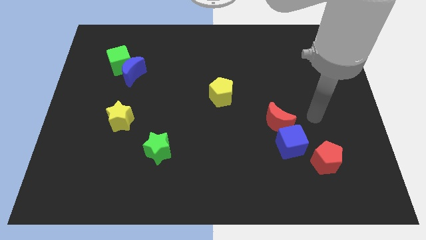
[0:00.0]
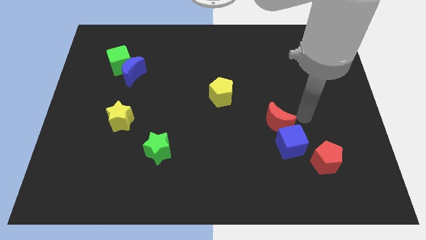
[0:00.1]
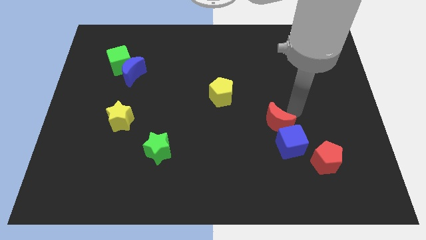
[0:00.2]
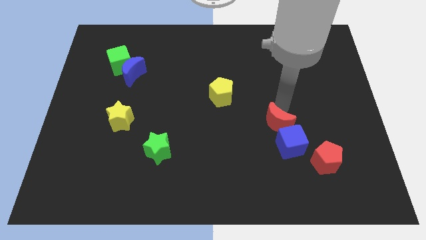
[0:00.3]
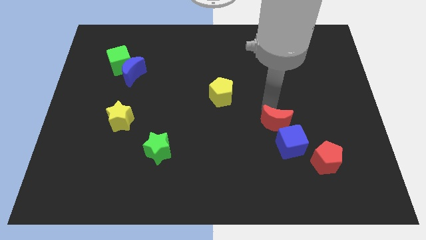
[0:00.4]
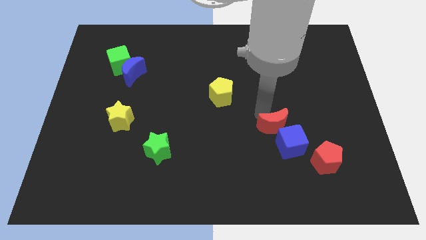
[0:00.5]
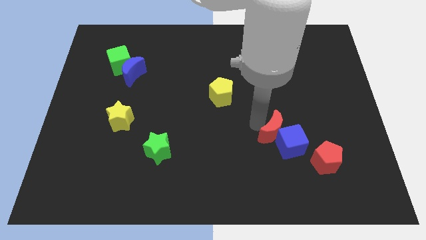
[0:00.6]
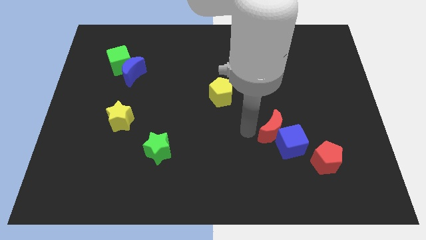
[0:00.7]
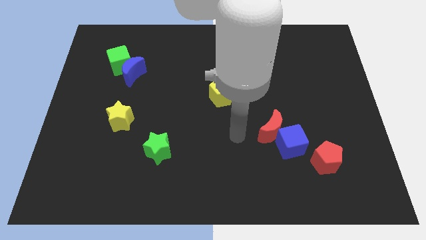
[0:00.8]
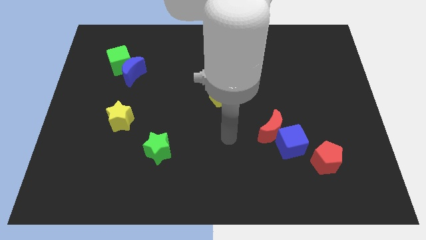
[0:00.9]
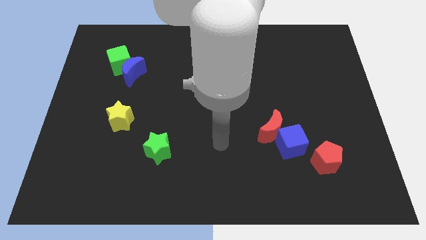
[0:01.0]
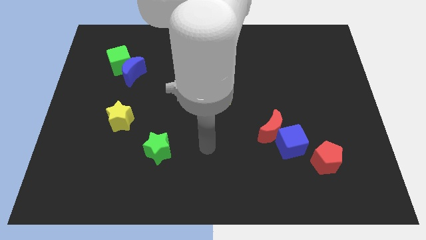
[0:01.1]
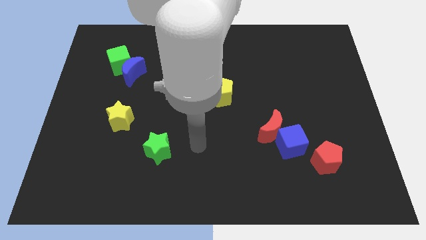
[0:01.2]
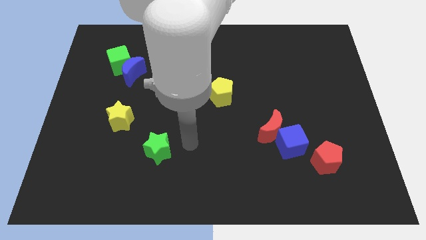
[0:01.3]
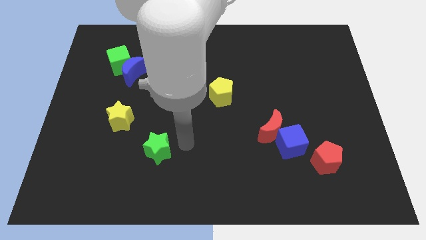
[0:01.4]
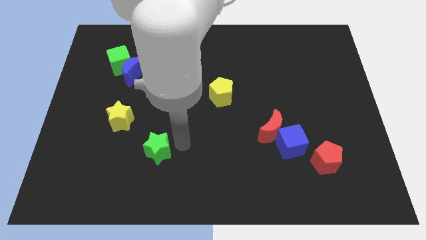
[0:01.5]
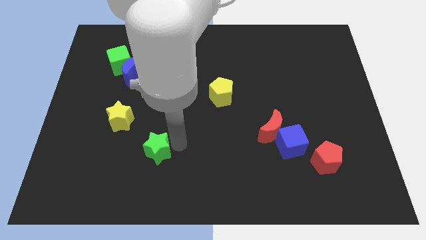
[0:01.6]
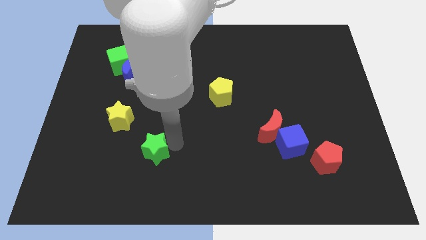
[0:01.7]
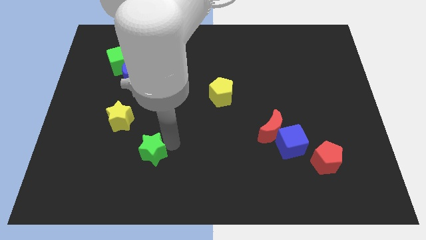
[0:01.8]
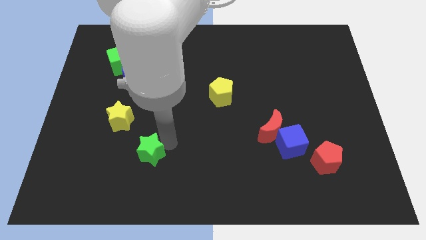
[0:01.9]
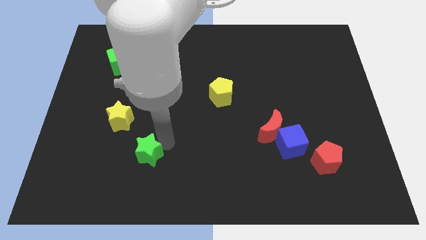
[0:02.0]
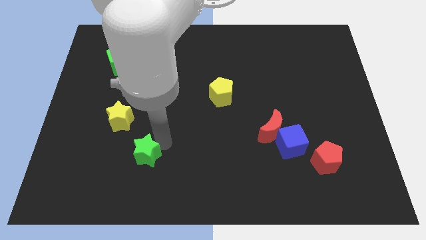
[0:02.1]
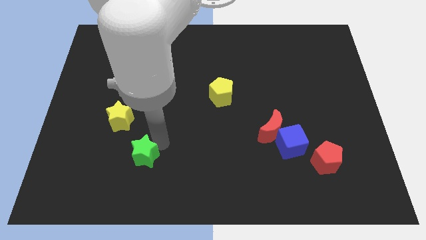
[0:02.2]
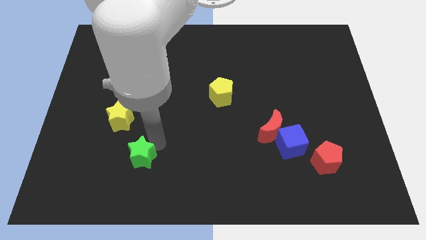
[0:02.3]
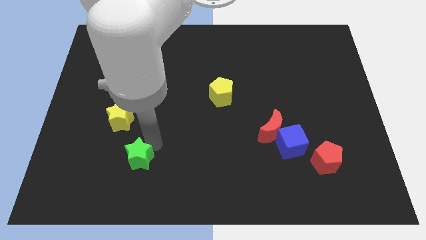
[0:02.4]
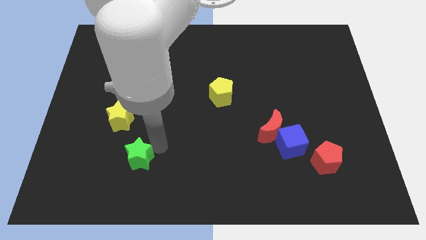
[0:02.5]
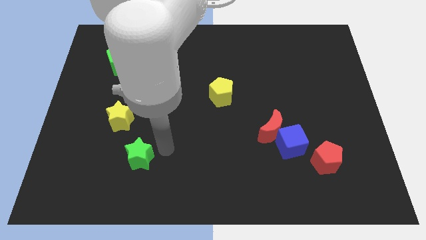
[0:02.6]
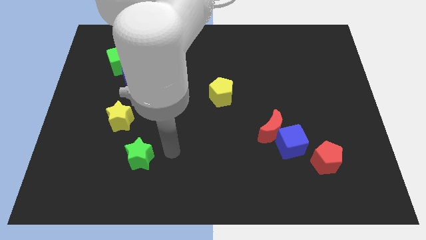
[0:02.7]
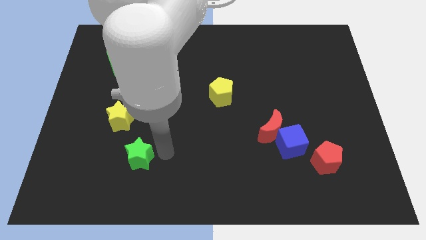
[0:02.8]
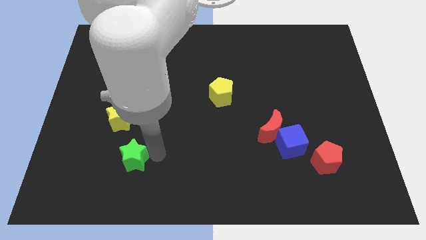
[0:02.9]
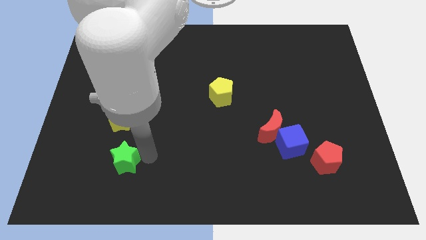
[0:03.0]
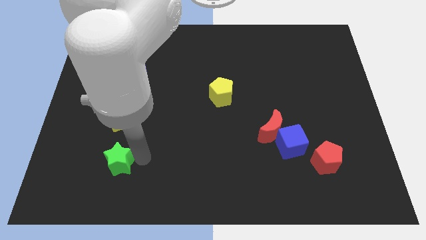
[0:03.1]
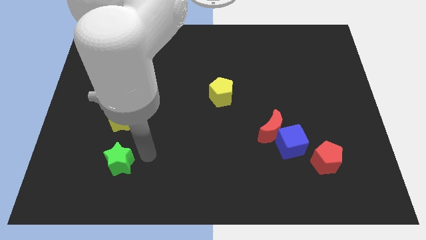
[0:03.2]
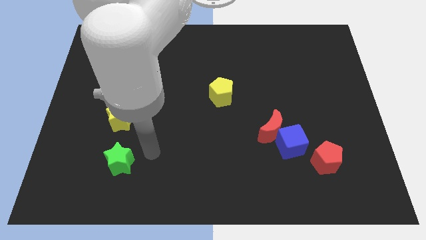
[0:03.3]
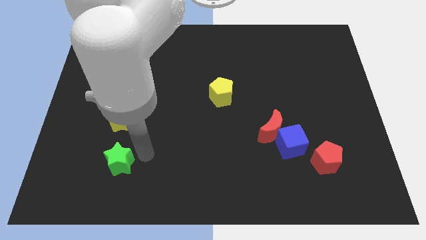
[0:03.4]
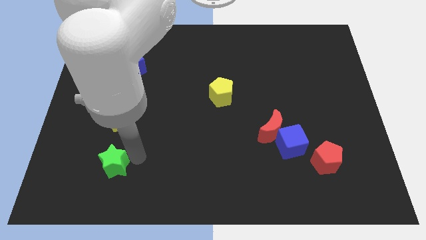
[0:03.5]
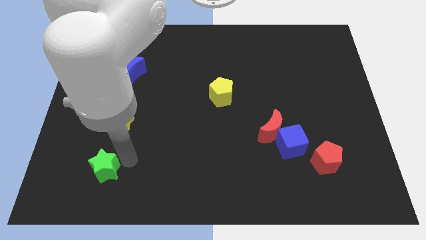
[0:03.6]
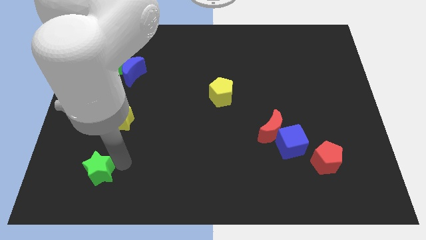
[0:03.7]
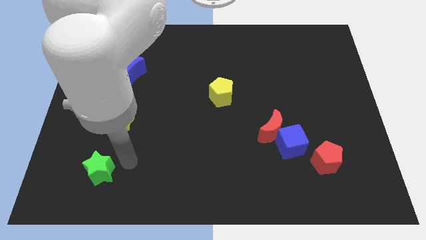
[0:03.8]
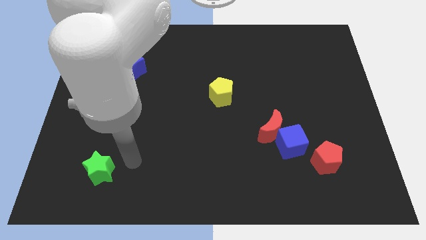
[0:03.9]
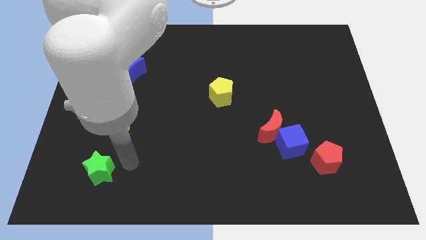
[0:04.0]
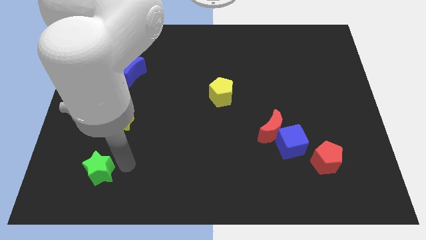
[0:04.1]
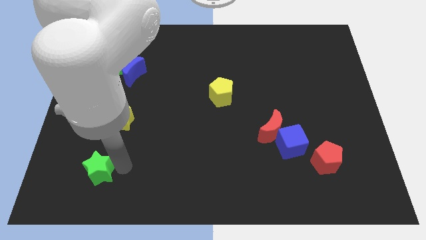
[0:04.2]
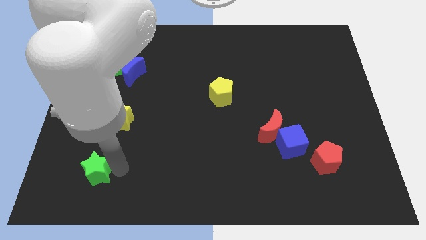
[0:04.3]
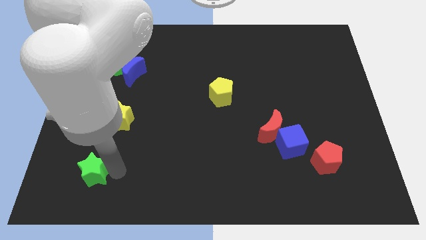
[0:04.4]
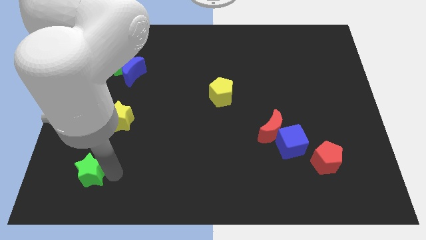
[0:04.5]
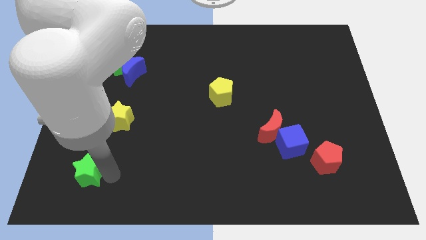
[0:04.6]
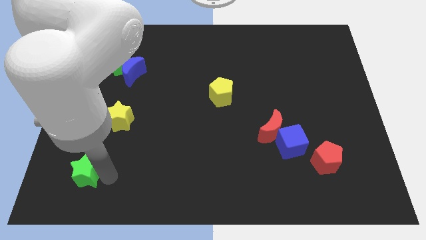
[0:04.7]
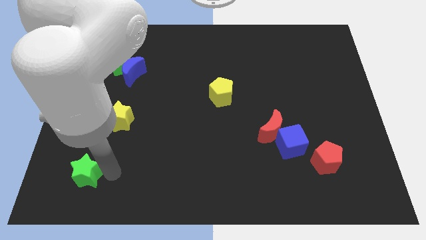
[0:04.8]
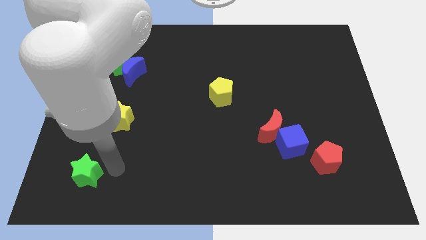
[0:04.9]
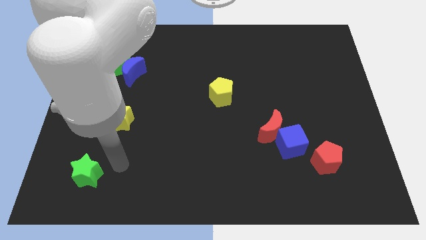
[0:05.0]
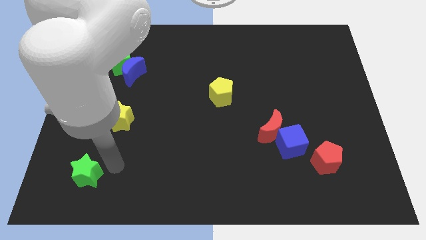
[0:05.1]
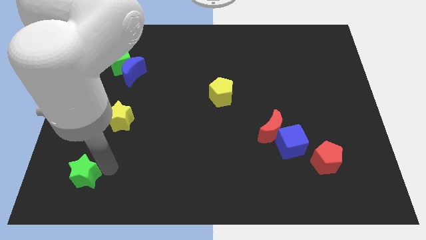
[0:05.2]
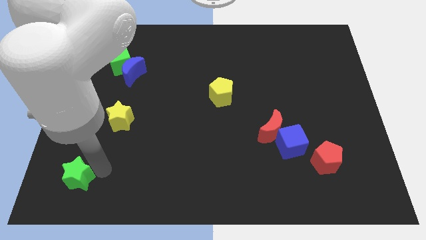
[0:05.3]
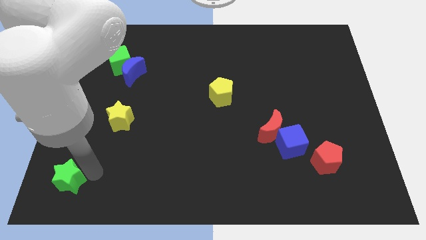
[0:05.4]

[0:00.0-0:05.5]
push the green star to the bottom left corner
